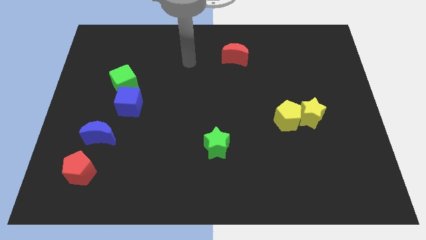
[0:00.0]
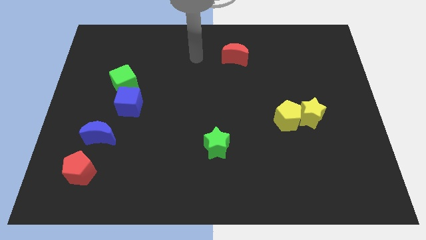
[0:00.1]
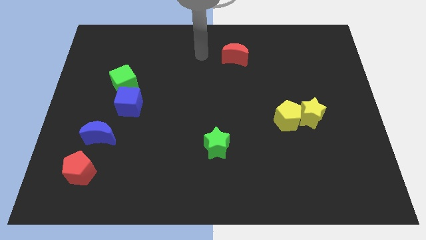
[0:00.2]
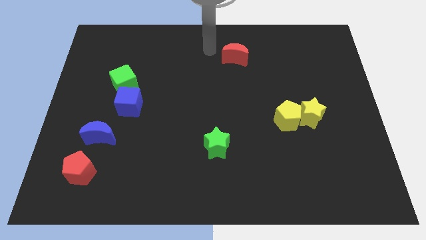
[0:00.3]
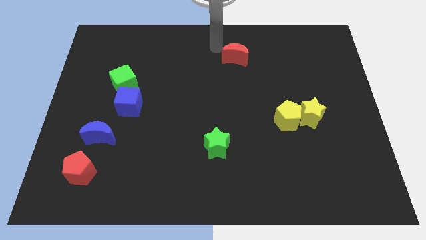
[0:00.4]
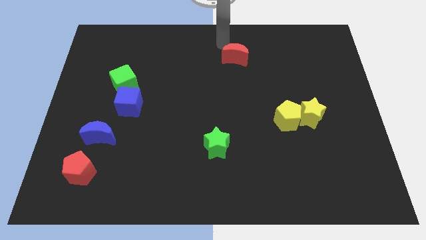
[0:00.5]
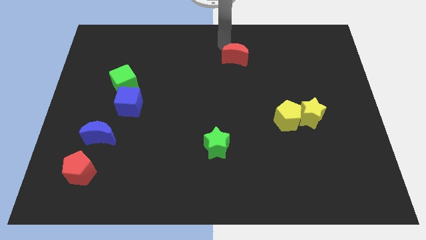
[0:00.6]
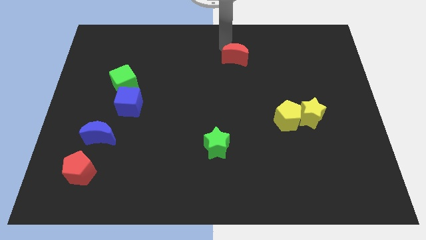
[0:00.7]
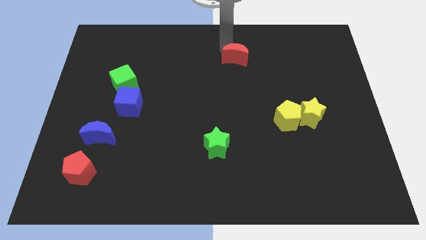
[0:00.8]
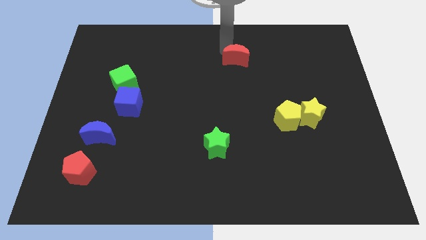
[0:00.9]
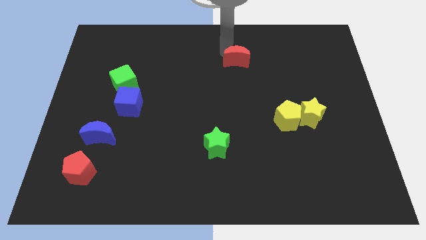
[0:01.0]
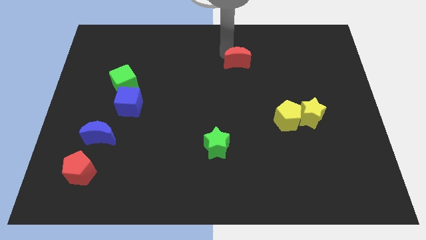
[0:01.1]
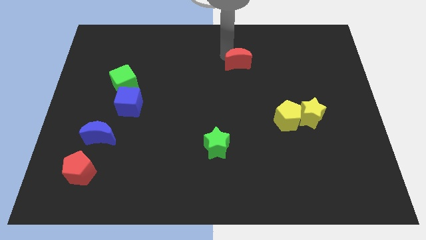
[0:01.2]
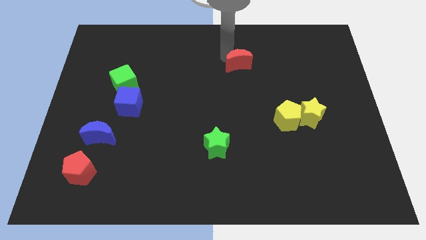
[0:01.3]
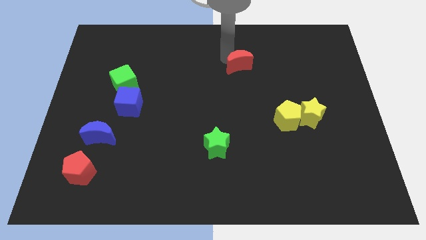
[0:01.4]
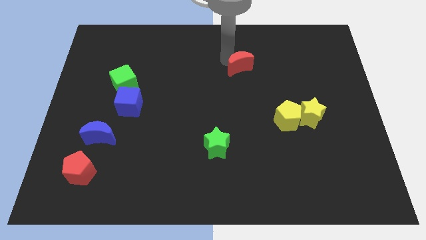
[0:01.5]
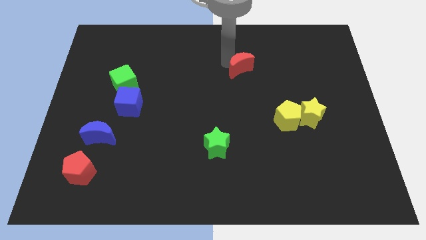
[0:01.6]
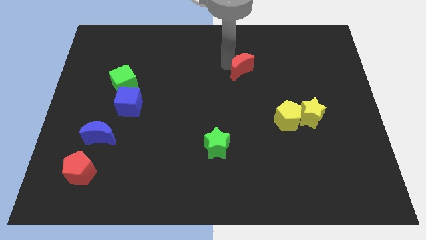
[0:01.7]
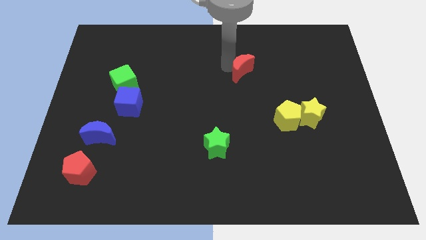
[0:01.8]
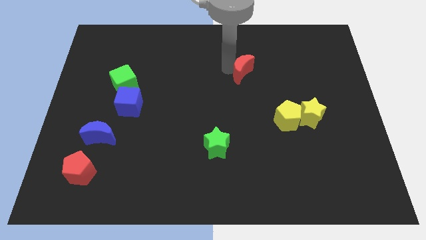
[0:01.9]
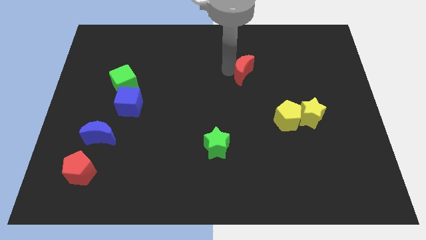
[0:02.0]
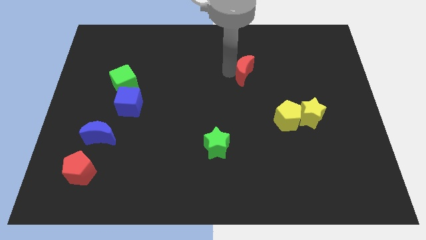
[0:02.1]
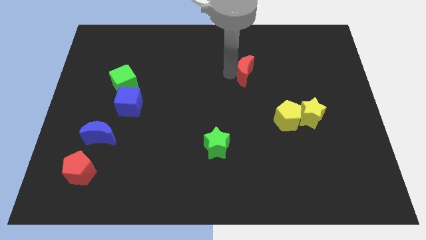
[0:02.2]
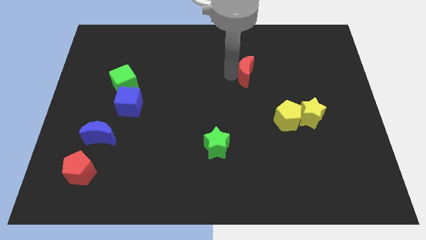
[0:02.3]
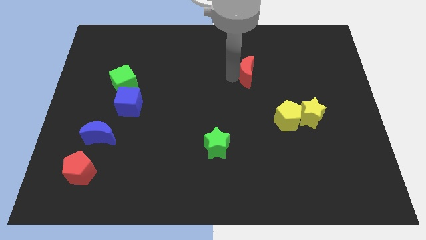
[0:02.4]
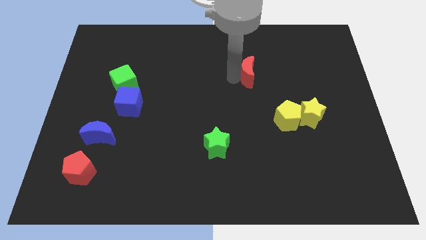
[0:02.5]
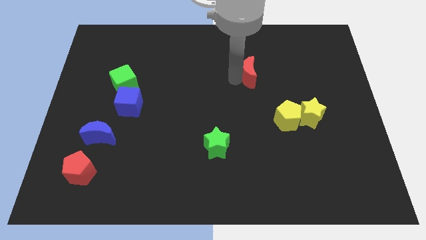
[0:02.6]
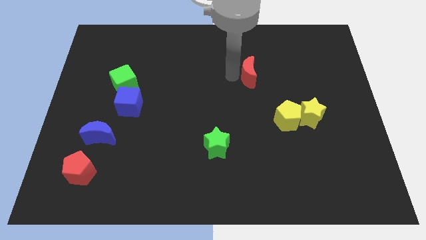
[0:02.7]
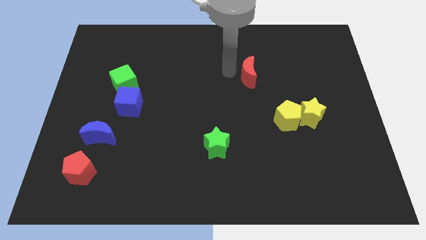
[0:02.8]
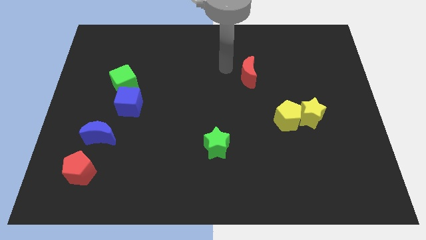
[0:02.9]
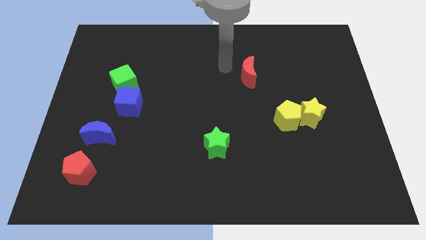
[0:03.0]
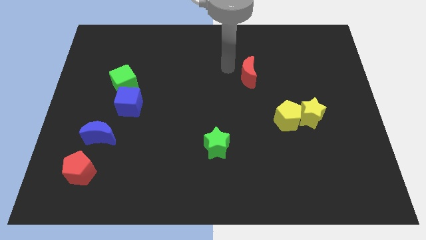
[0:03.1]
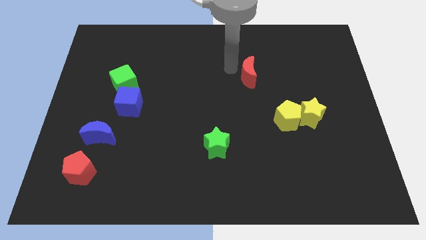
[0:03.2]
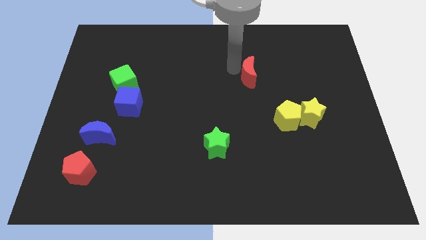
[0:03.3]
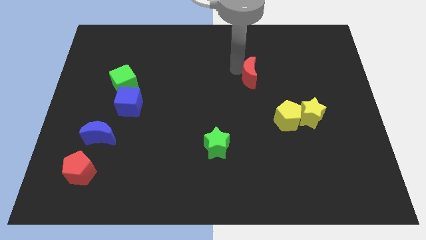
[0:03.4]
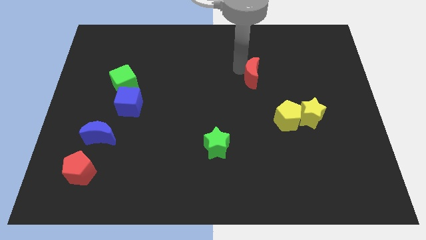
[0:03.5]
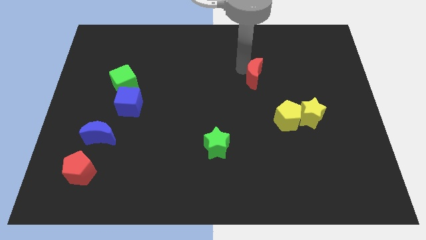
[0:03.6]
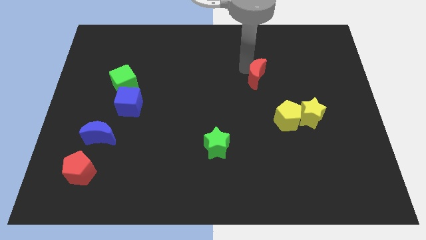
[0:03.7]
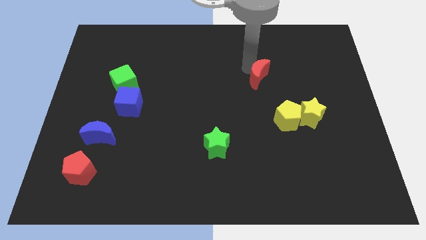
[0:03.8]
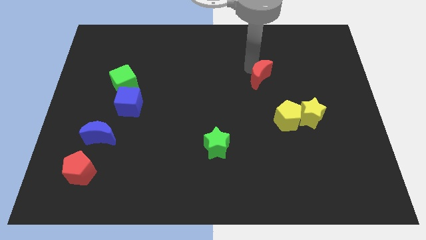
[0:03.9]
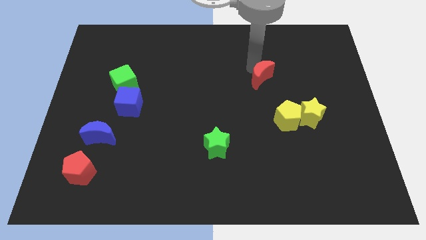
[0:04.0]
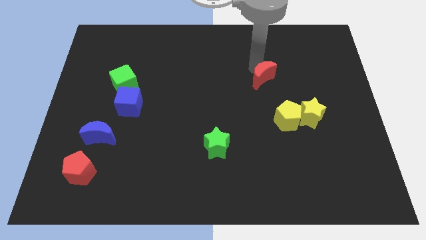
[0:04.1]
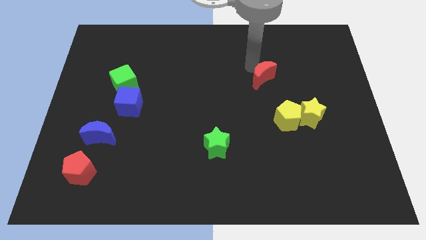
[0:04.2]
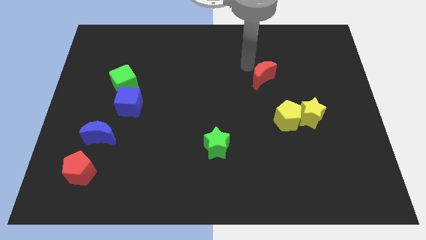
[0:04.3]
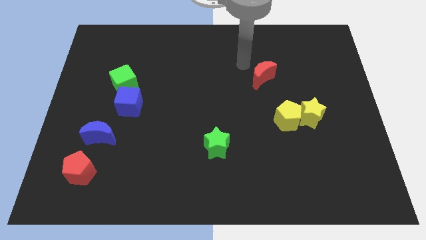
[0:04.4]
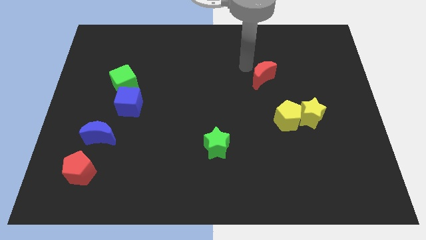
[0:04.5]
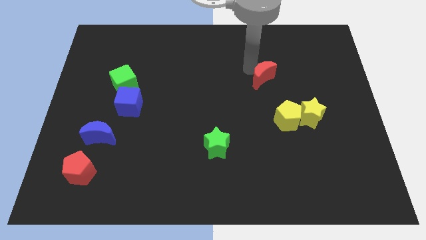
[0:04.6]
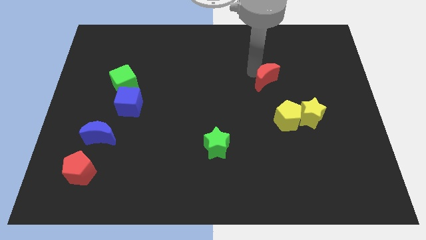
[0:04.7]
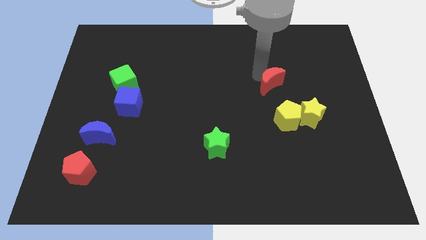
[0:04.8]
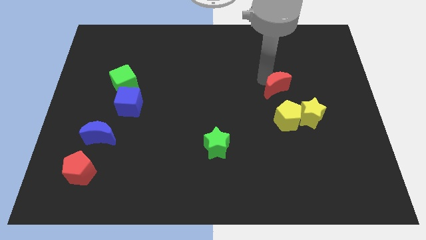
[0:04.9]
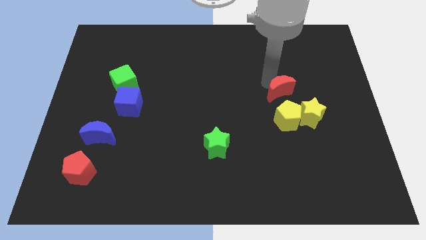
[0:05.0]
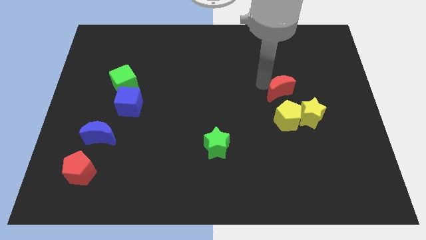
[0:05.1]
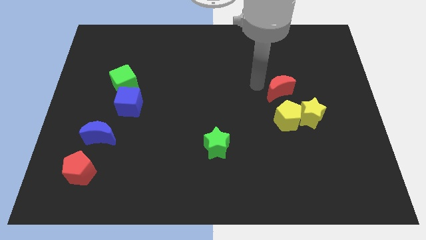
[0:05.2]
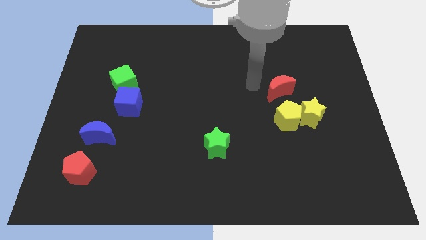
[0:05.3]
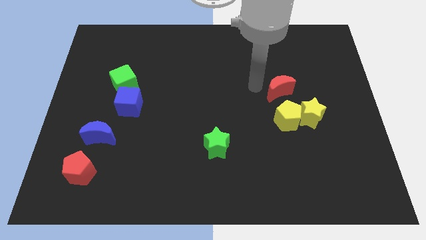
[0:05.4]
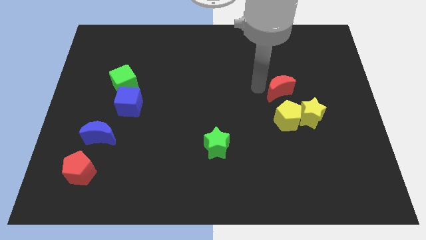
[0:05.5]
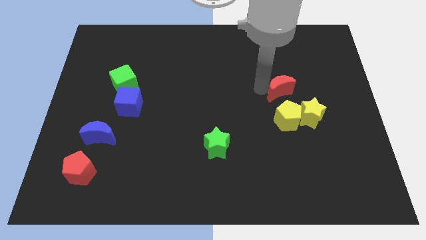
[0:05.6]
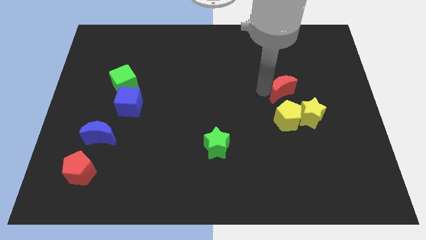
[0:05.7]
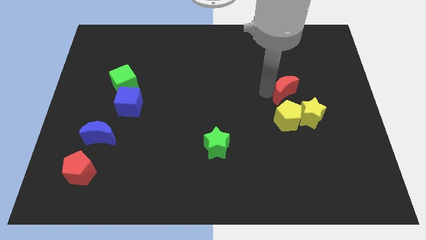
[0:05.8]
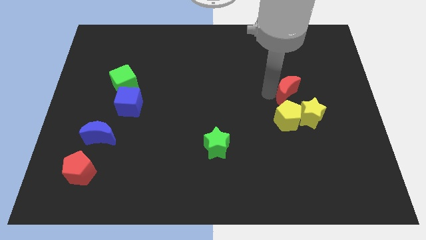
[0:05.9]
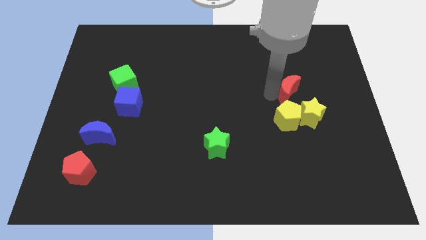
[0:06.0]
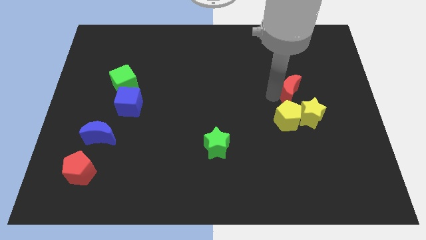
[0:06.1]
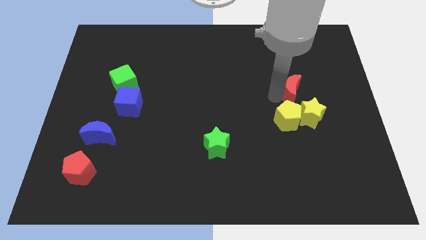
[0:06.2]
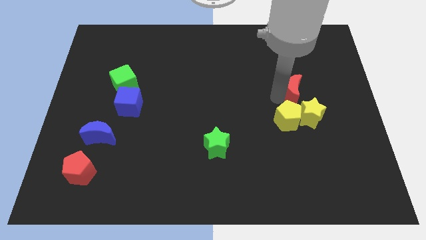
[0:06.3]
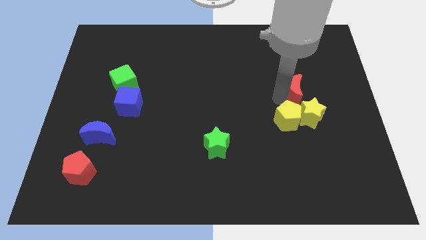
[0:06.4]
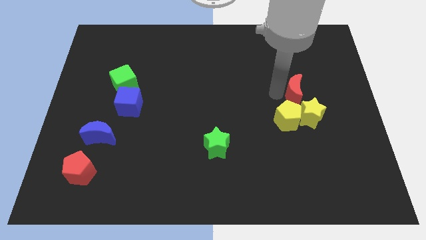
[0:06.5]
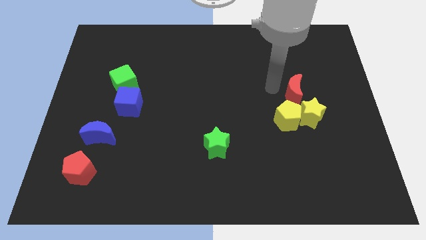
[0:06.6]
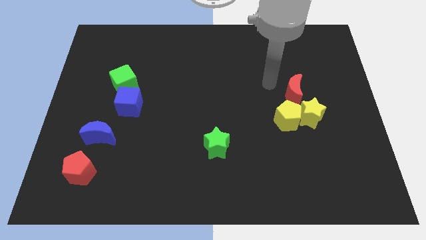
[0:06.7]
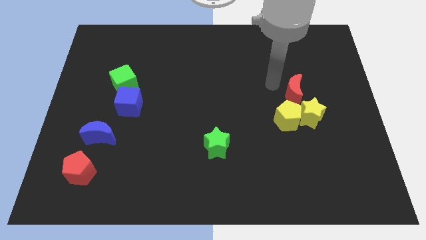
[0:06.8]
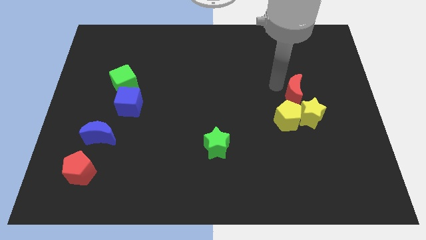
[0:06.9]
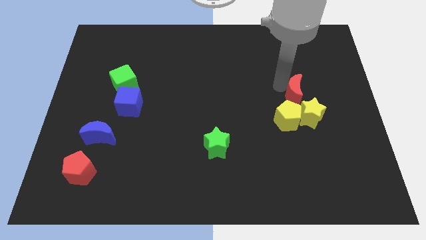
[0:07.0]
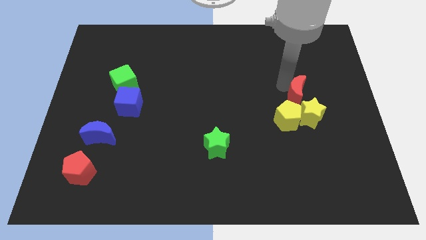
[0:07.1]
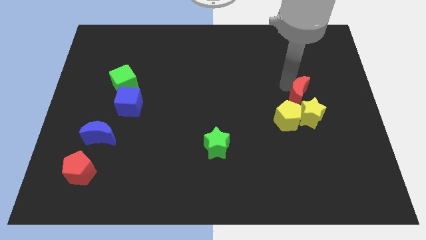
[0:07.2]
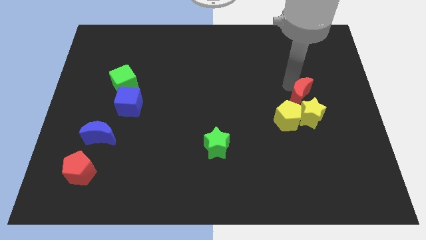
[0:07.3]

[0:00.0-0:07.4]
push the red moon downwards and to the right

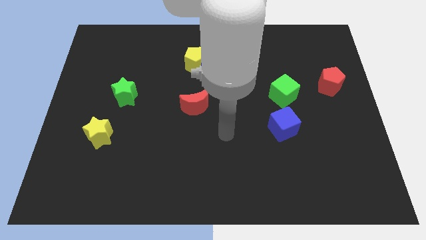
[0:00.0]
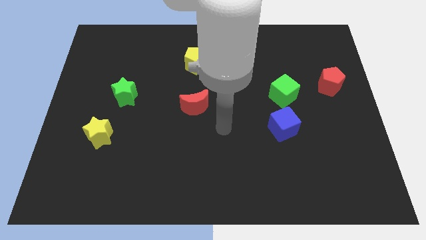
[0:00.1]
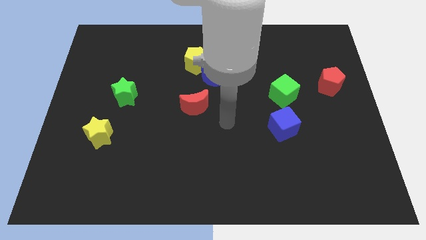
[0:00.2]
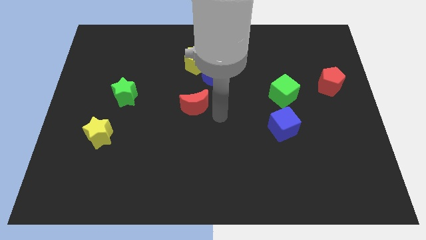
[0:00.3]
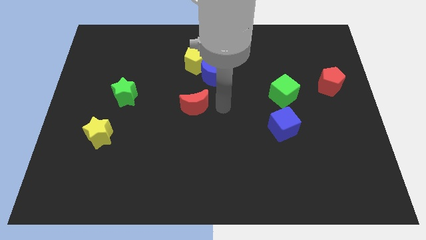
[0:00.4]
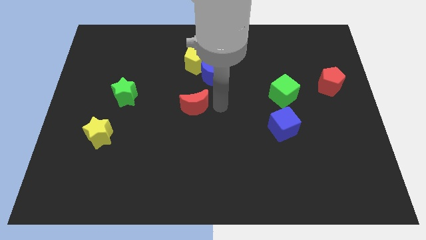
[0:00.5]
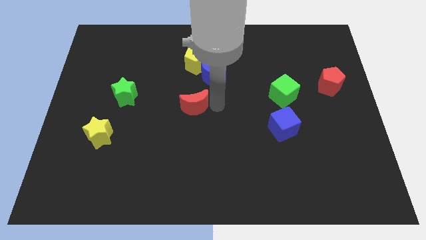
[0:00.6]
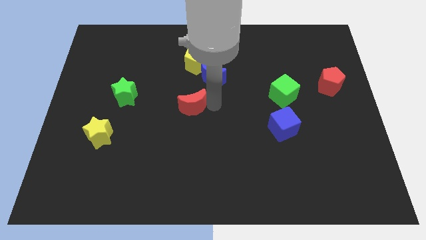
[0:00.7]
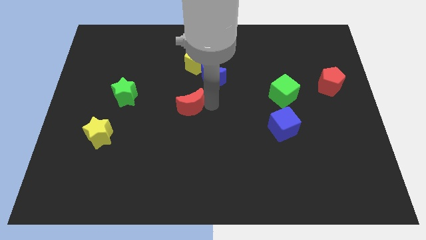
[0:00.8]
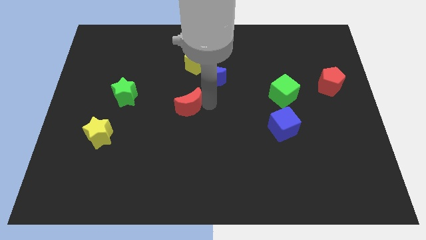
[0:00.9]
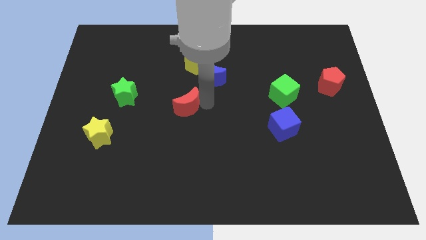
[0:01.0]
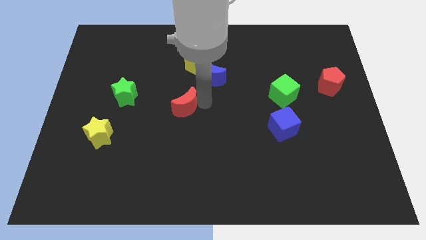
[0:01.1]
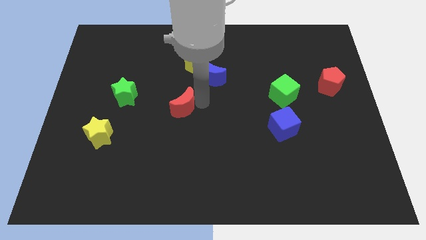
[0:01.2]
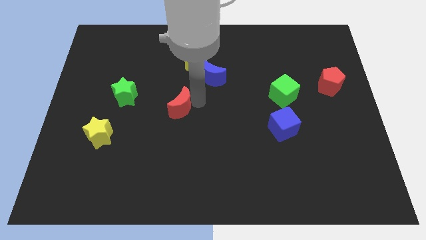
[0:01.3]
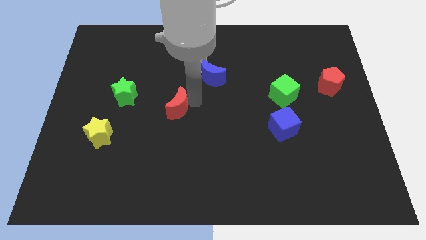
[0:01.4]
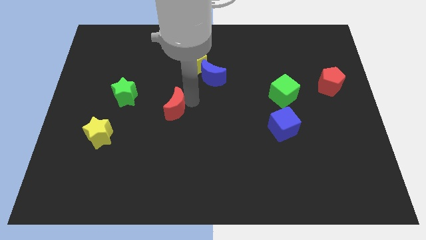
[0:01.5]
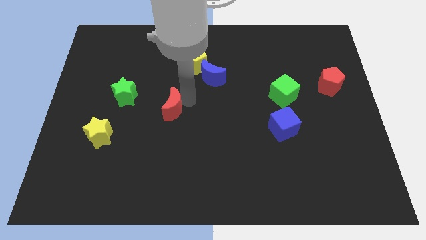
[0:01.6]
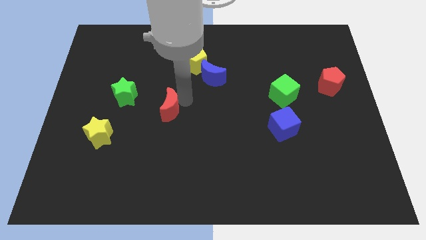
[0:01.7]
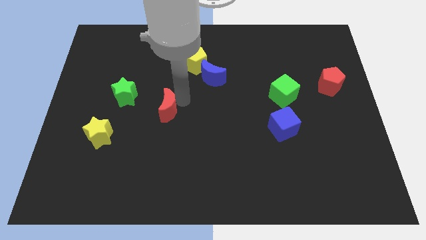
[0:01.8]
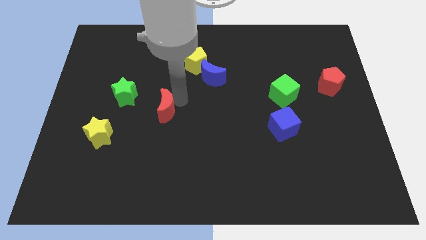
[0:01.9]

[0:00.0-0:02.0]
slightly push the red moon to the left
